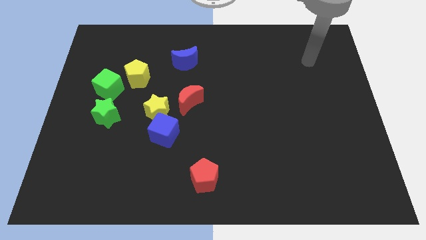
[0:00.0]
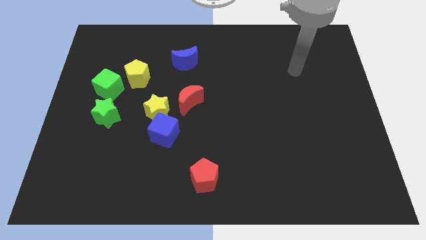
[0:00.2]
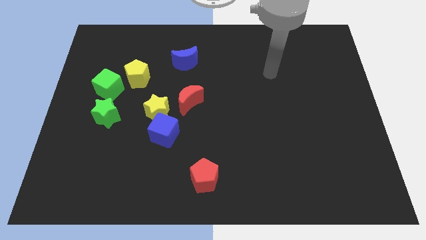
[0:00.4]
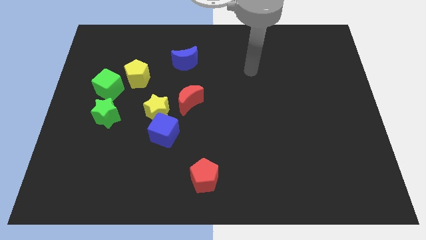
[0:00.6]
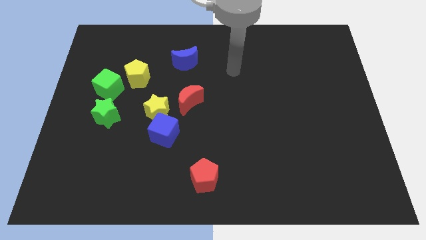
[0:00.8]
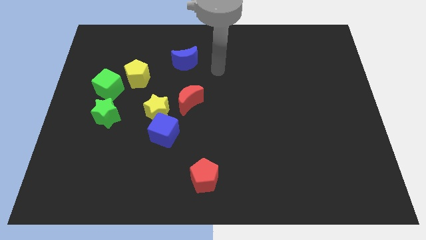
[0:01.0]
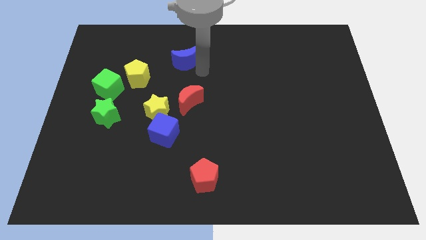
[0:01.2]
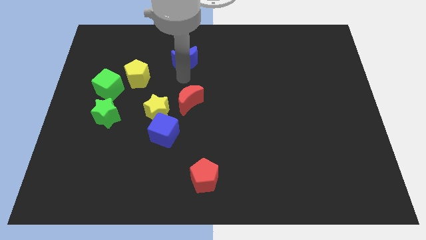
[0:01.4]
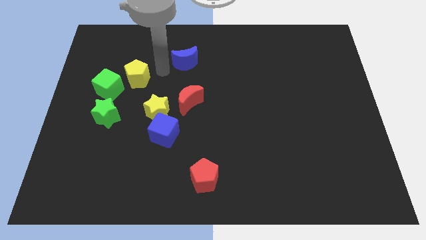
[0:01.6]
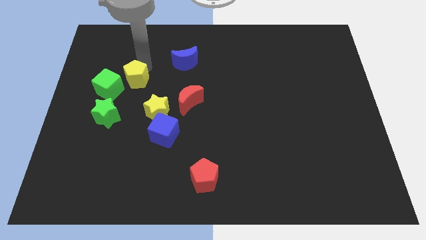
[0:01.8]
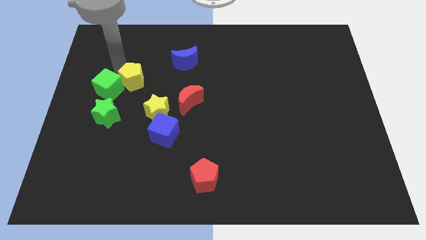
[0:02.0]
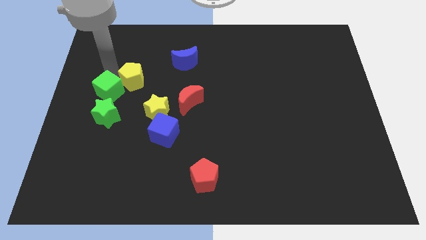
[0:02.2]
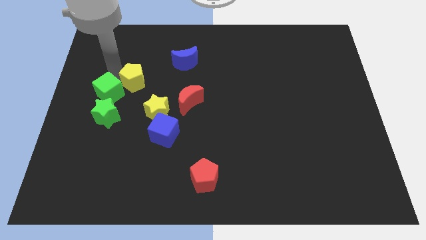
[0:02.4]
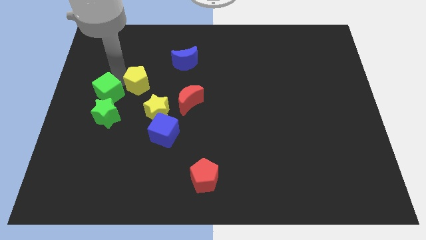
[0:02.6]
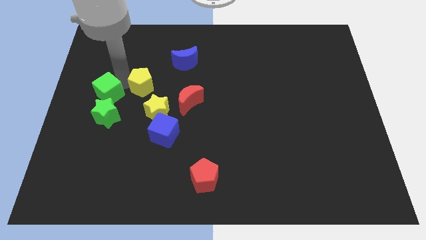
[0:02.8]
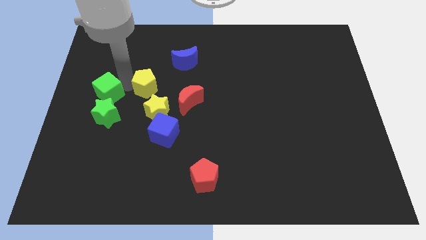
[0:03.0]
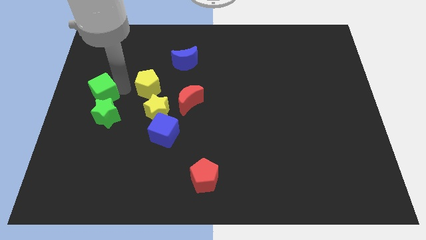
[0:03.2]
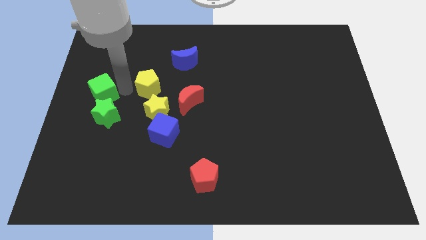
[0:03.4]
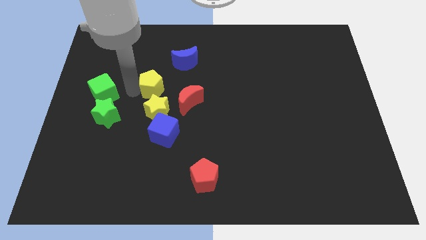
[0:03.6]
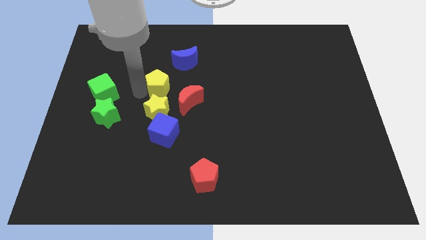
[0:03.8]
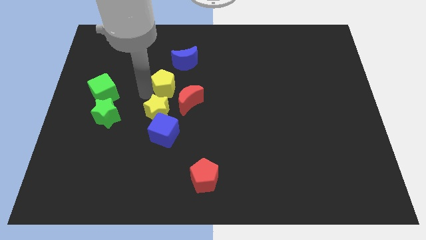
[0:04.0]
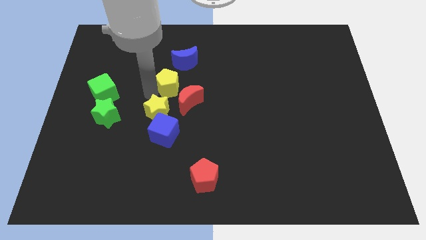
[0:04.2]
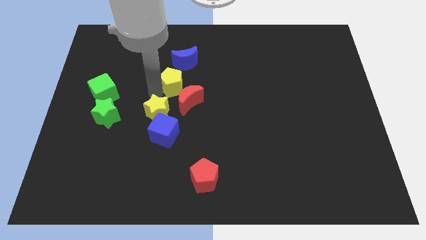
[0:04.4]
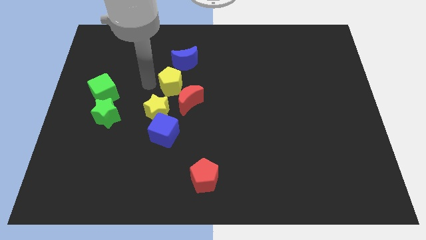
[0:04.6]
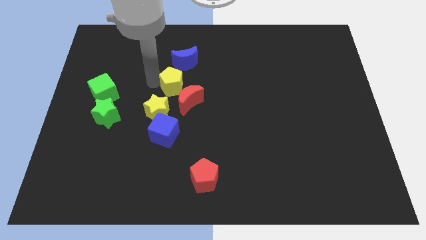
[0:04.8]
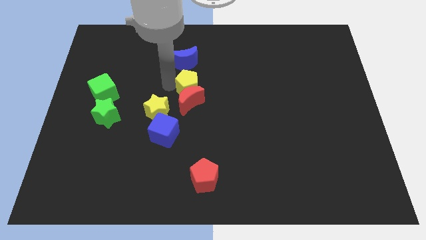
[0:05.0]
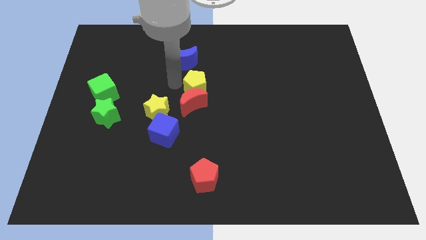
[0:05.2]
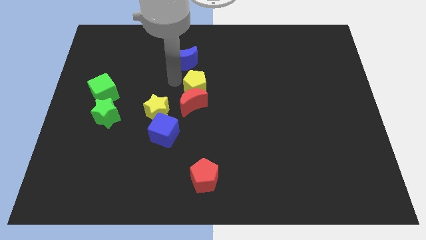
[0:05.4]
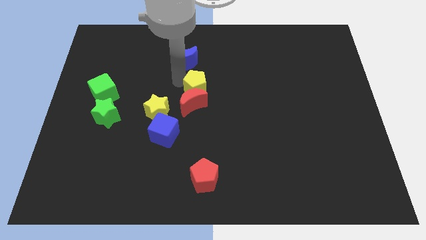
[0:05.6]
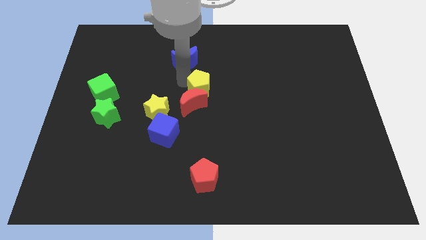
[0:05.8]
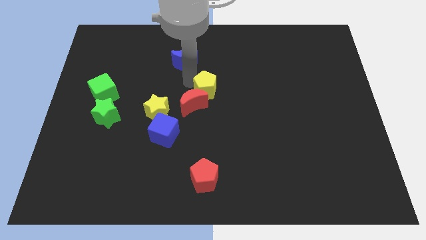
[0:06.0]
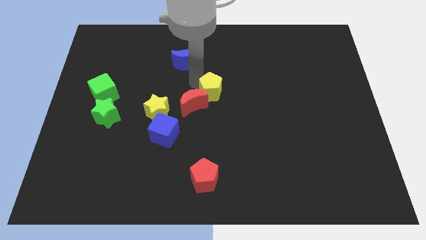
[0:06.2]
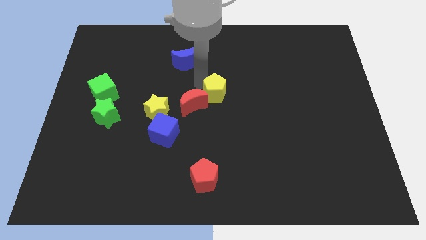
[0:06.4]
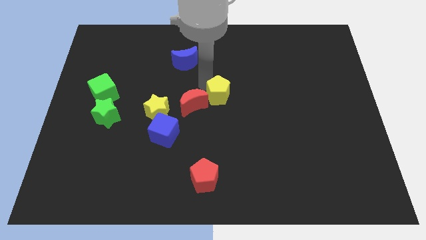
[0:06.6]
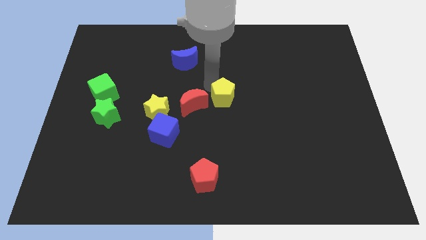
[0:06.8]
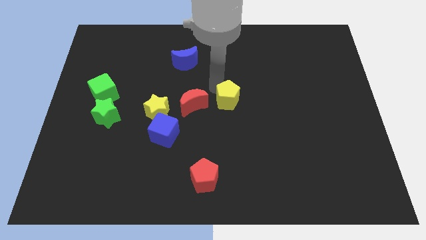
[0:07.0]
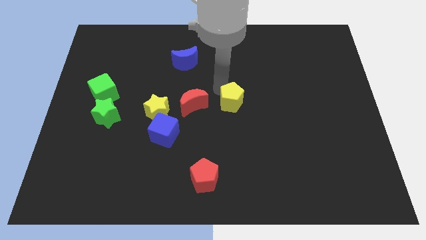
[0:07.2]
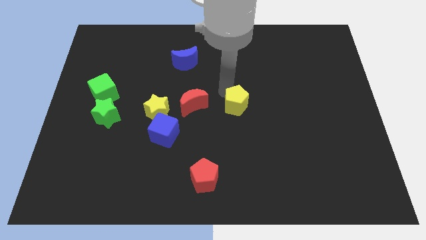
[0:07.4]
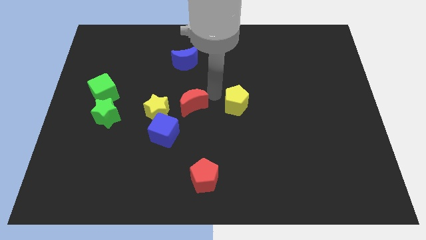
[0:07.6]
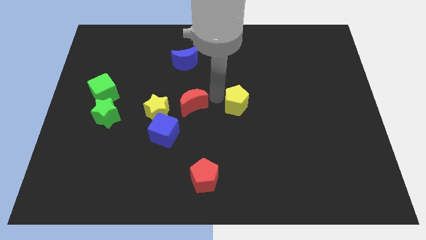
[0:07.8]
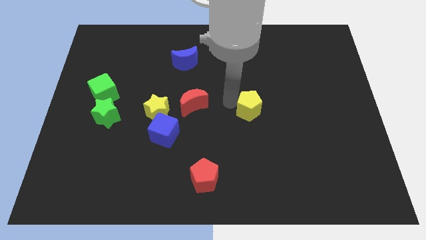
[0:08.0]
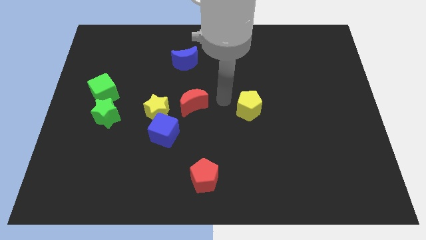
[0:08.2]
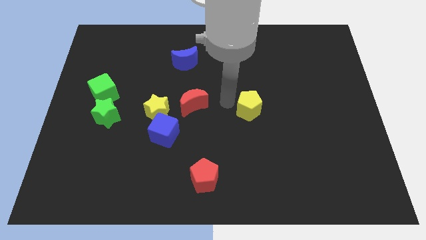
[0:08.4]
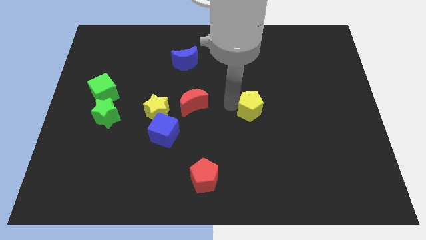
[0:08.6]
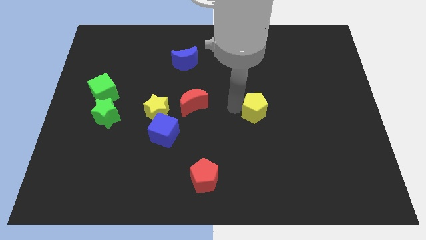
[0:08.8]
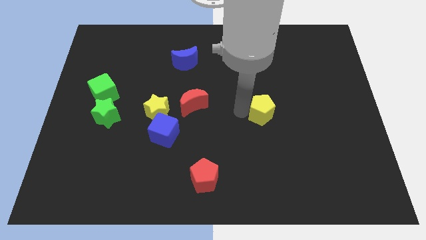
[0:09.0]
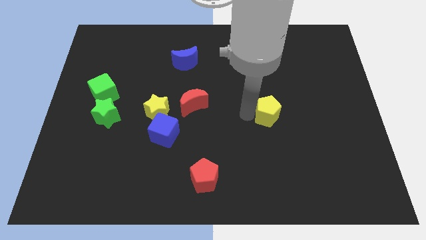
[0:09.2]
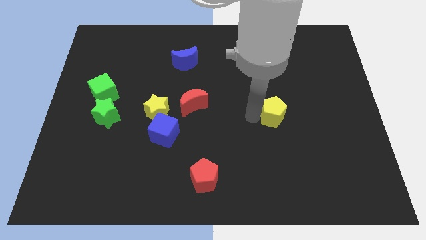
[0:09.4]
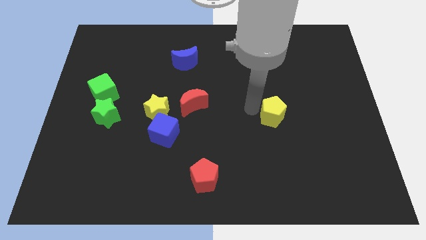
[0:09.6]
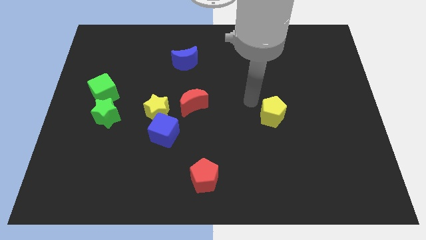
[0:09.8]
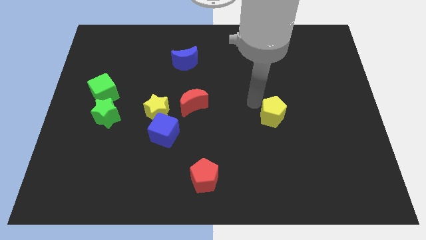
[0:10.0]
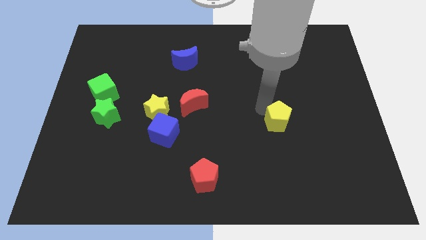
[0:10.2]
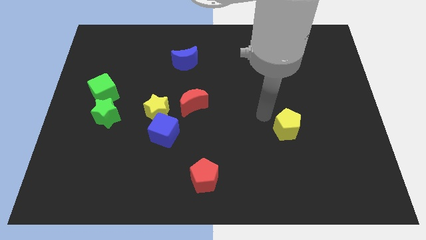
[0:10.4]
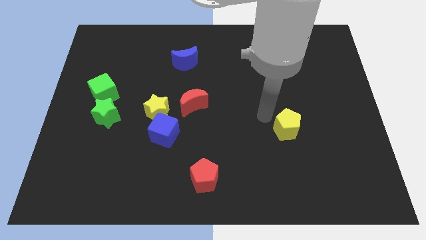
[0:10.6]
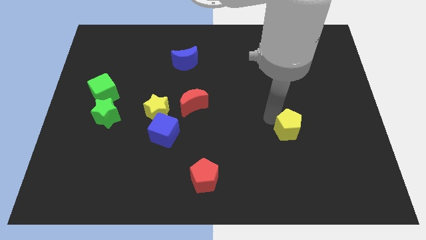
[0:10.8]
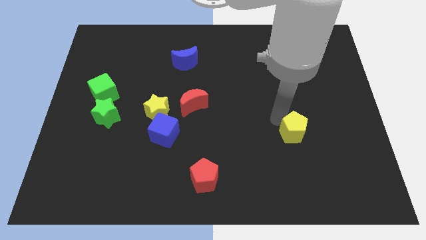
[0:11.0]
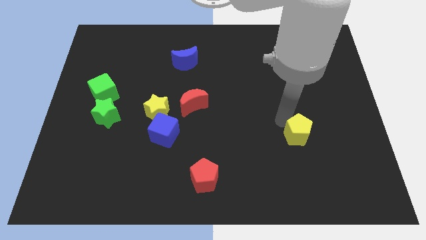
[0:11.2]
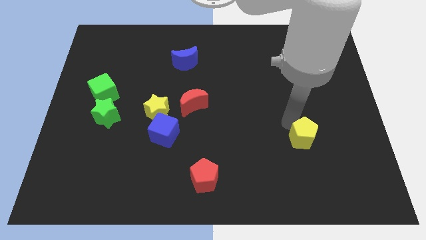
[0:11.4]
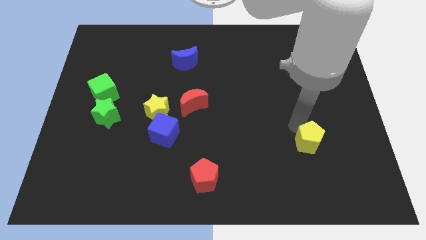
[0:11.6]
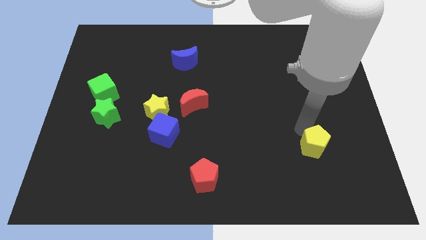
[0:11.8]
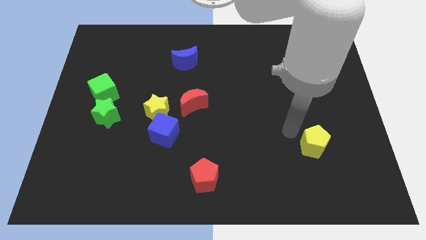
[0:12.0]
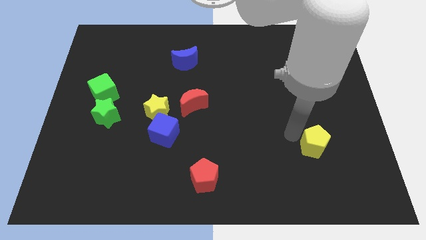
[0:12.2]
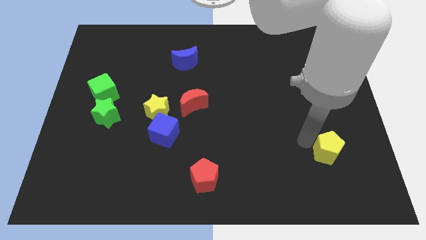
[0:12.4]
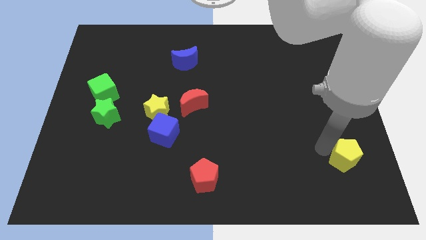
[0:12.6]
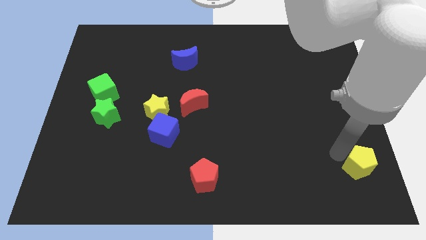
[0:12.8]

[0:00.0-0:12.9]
move the yellow pentagon to the bottom right
